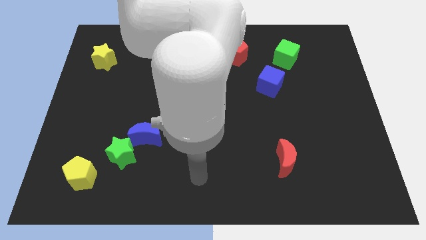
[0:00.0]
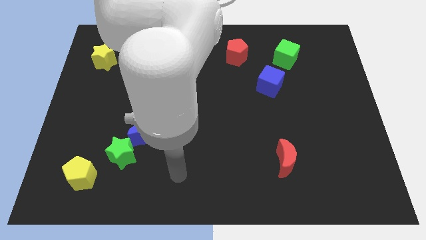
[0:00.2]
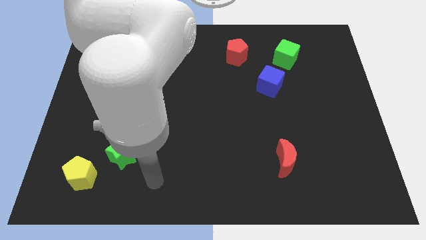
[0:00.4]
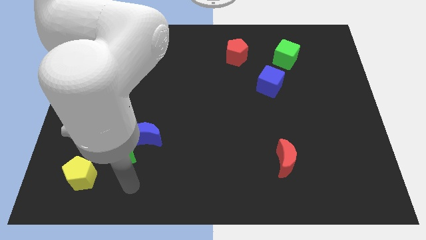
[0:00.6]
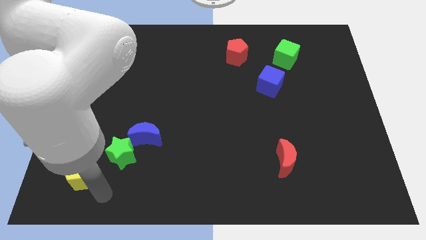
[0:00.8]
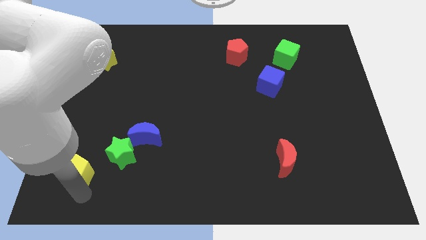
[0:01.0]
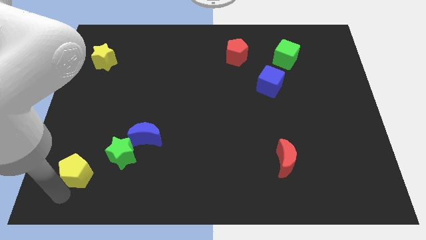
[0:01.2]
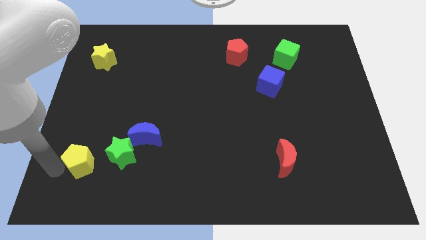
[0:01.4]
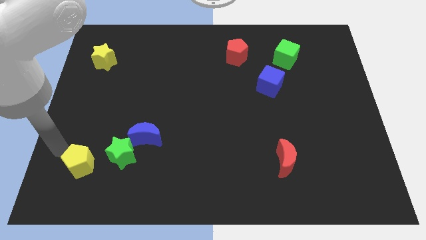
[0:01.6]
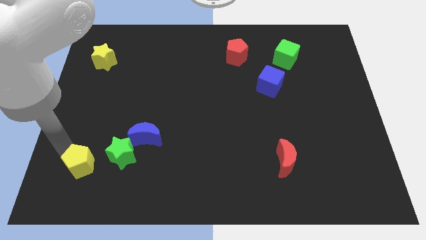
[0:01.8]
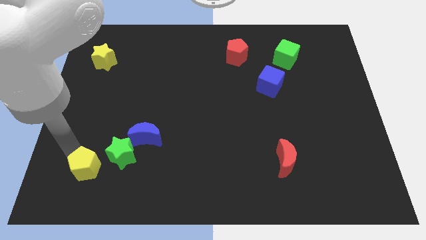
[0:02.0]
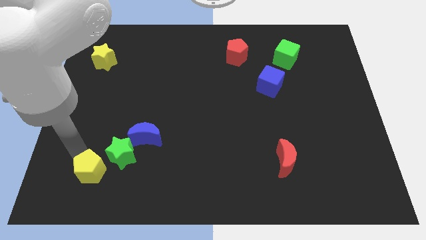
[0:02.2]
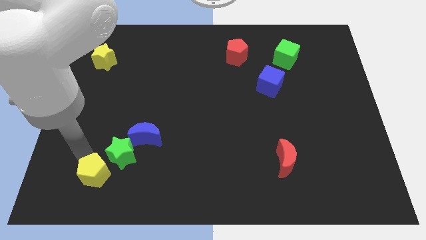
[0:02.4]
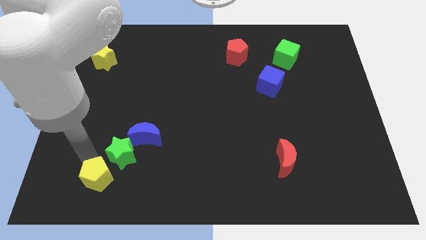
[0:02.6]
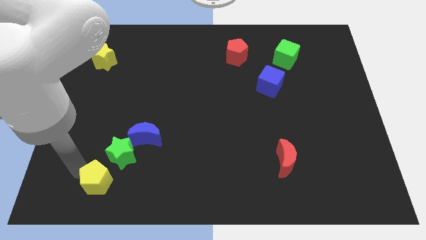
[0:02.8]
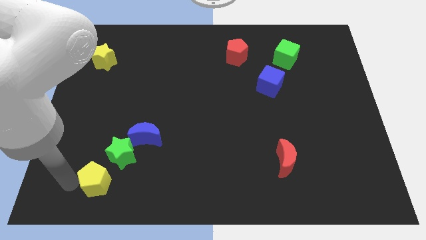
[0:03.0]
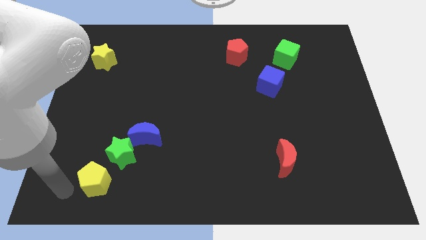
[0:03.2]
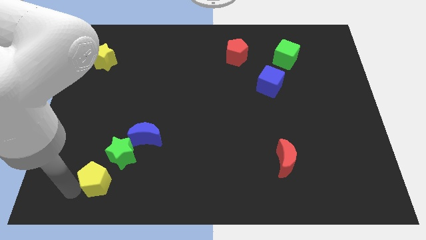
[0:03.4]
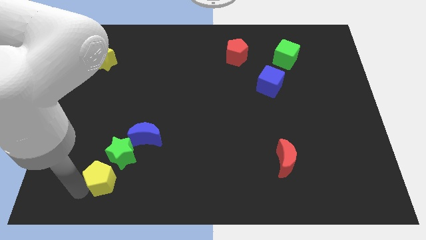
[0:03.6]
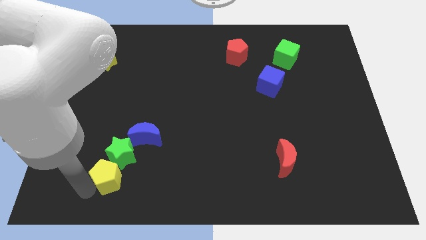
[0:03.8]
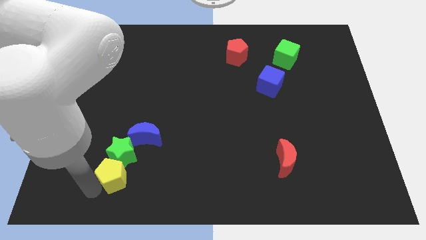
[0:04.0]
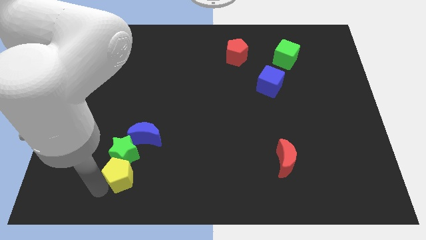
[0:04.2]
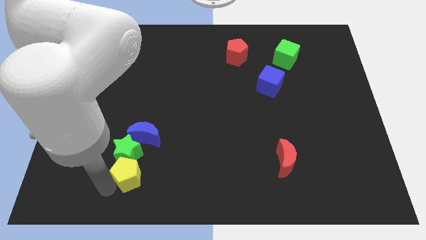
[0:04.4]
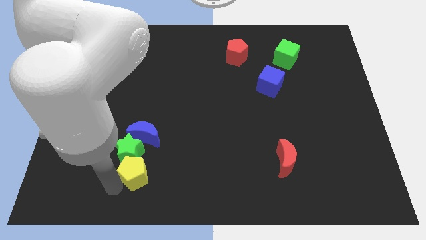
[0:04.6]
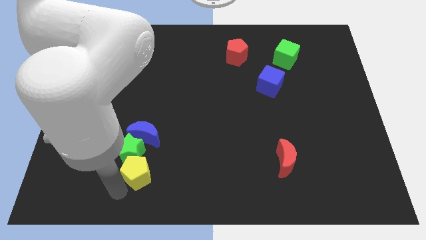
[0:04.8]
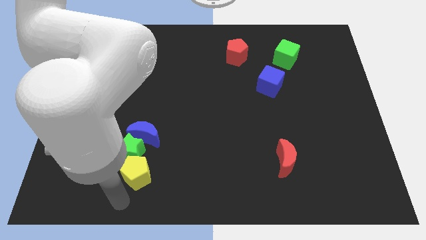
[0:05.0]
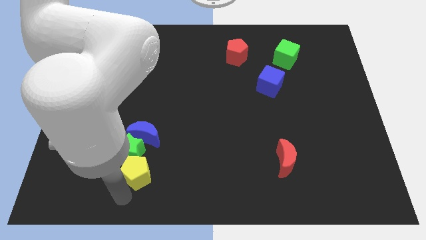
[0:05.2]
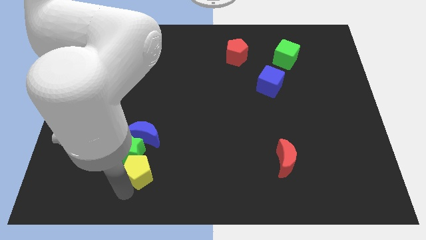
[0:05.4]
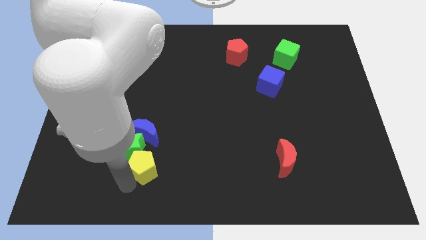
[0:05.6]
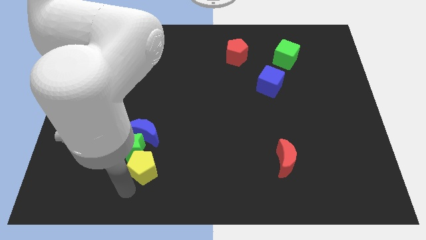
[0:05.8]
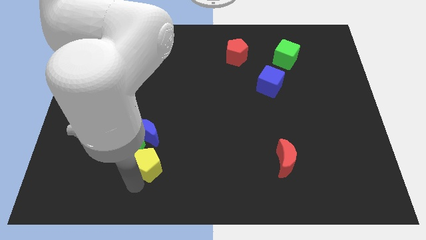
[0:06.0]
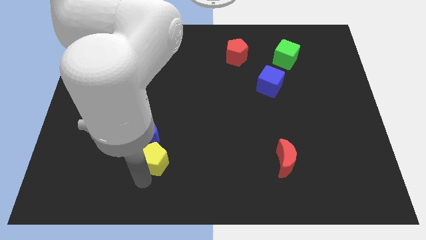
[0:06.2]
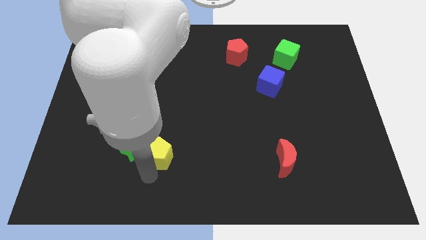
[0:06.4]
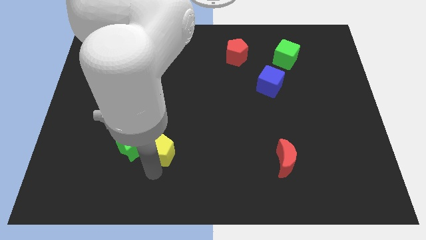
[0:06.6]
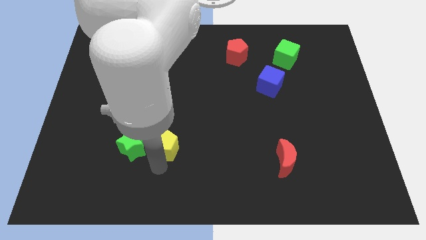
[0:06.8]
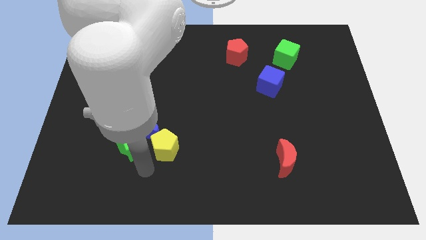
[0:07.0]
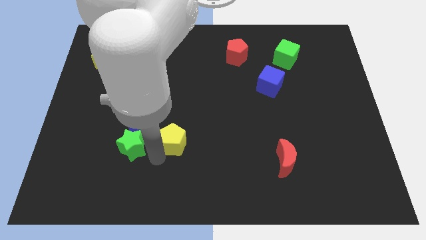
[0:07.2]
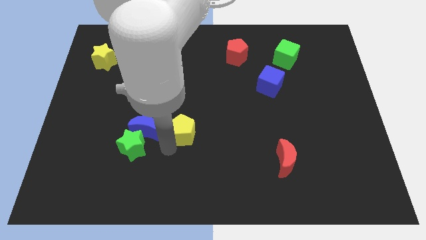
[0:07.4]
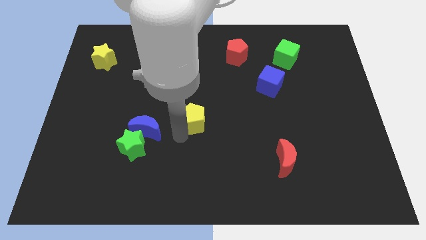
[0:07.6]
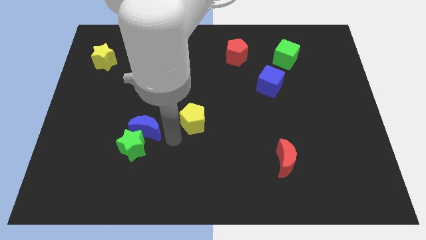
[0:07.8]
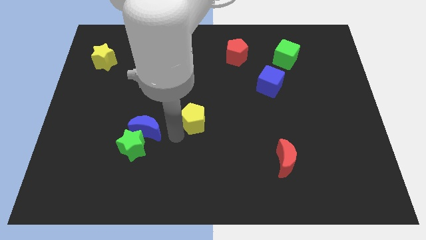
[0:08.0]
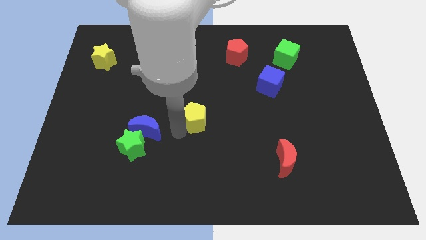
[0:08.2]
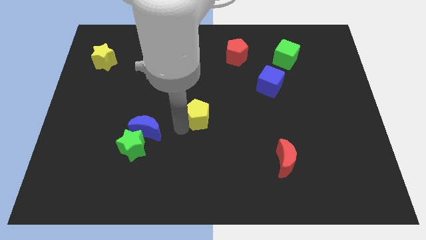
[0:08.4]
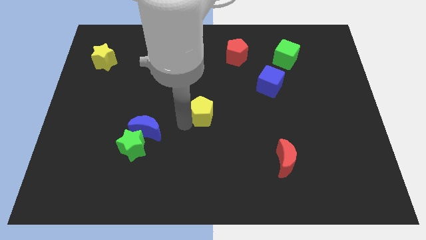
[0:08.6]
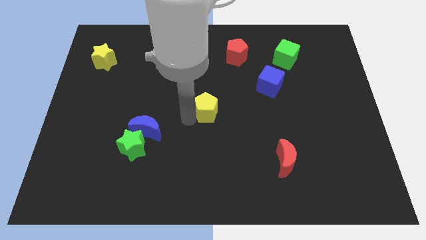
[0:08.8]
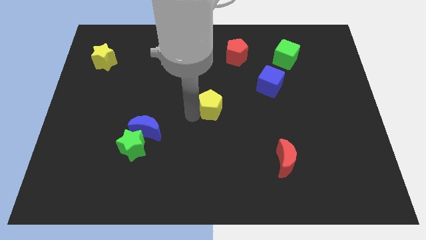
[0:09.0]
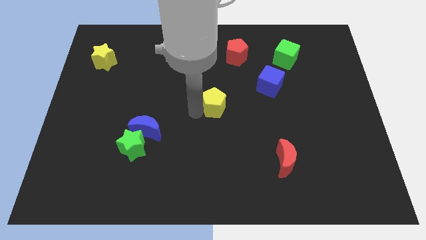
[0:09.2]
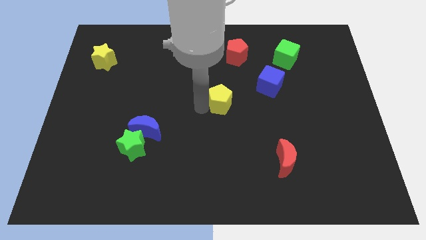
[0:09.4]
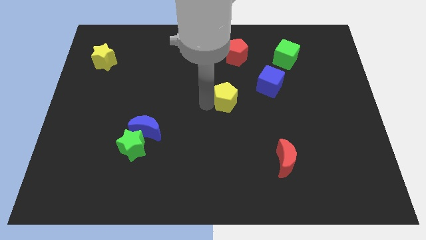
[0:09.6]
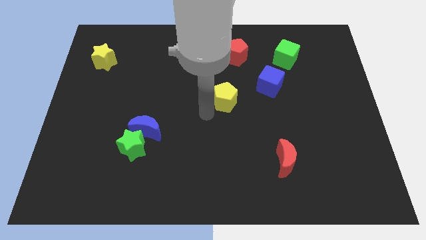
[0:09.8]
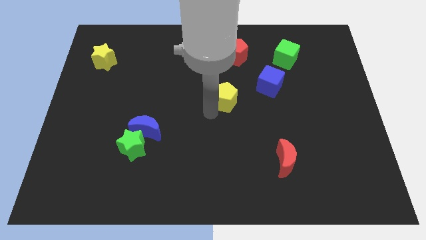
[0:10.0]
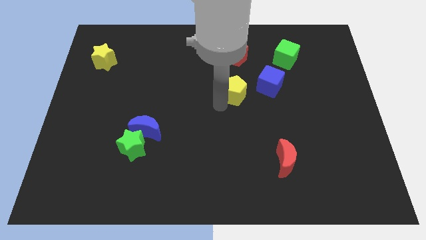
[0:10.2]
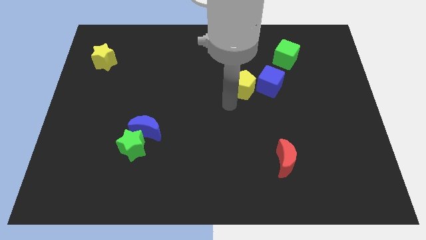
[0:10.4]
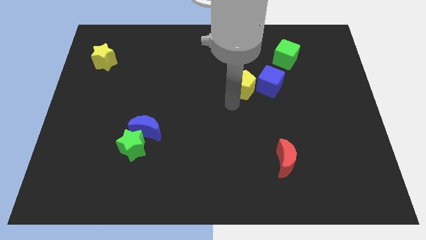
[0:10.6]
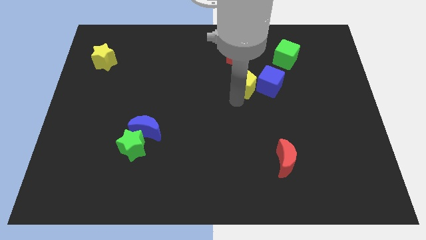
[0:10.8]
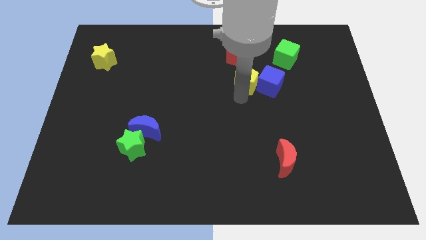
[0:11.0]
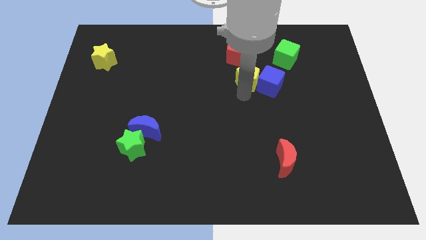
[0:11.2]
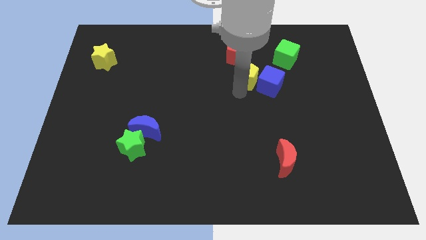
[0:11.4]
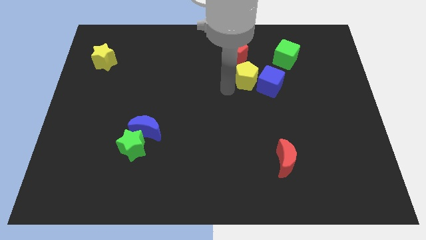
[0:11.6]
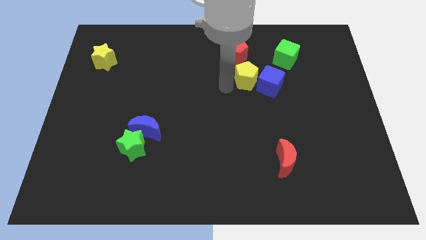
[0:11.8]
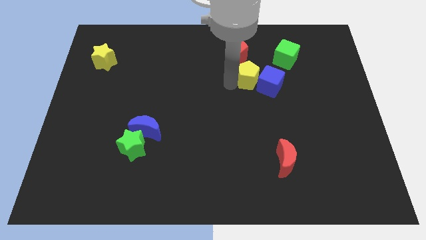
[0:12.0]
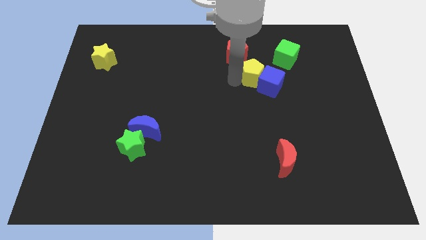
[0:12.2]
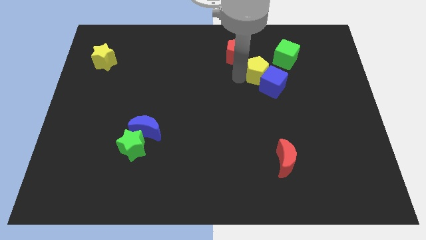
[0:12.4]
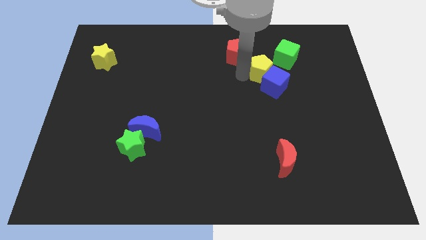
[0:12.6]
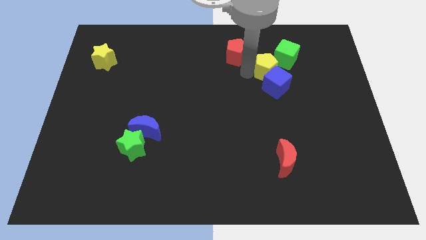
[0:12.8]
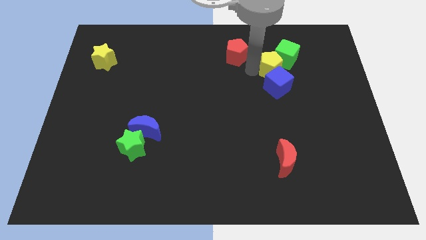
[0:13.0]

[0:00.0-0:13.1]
push the yellow pentagon to the top right of the blue cube
